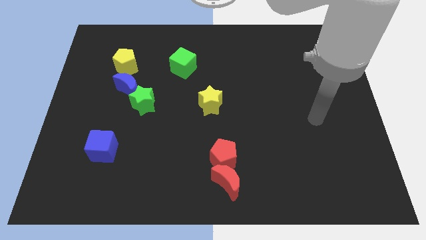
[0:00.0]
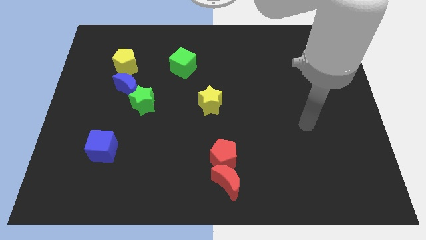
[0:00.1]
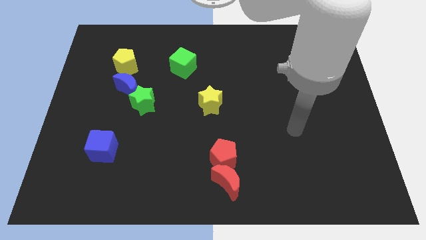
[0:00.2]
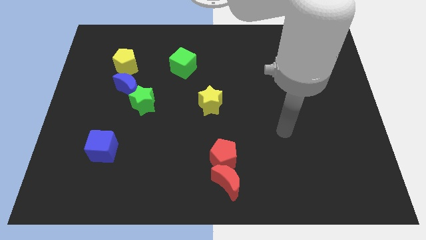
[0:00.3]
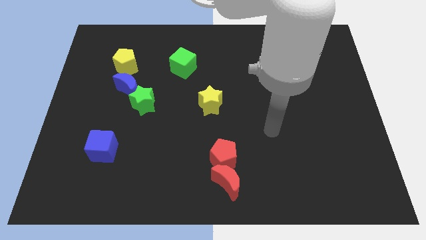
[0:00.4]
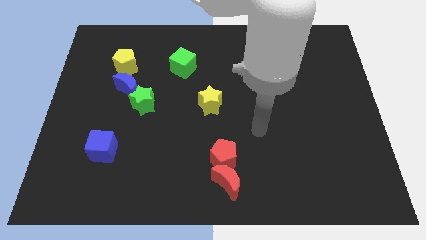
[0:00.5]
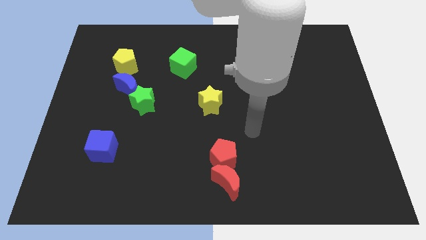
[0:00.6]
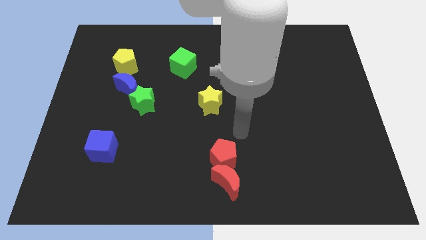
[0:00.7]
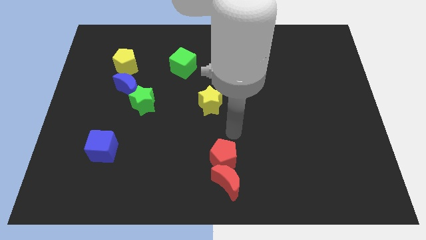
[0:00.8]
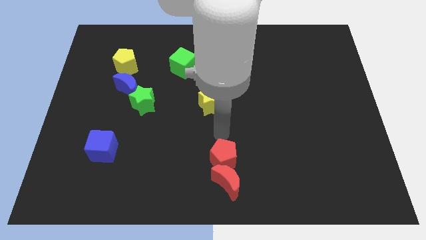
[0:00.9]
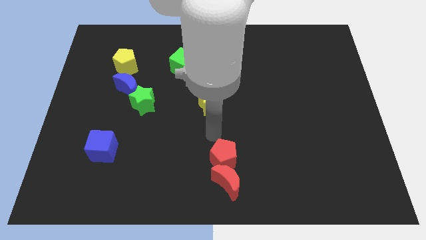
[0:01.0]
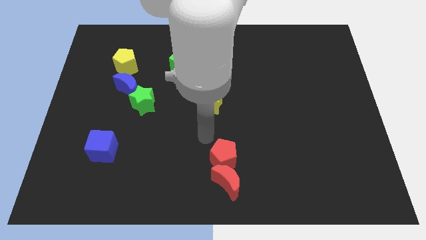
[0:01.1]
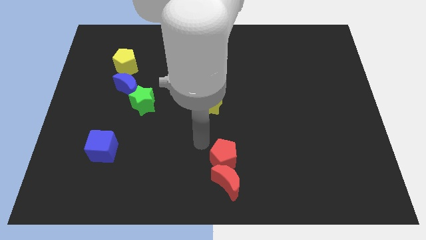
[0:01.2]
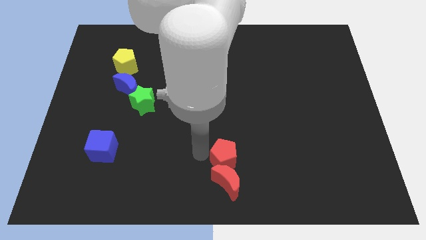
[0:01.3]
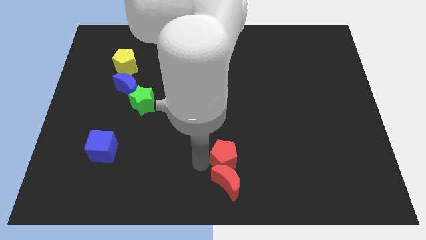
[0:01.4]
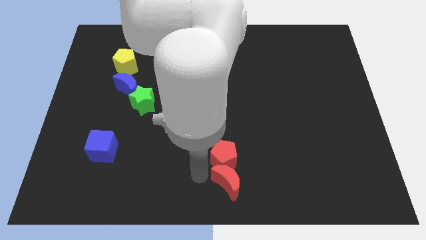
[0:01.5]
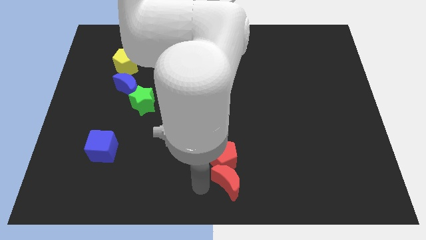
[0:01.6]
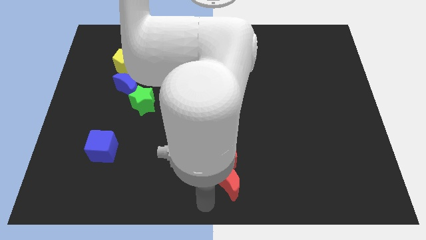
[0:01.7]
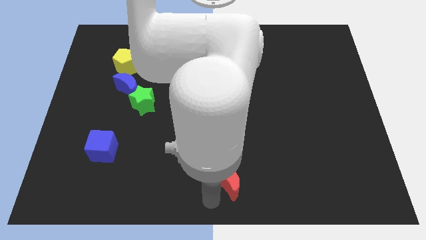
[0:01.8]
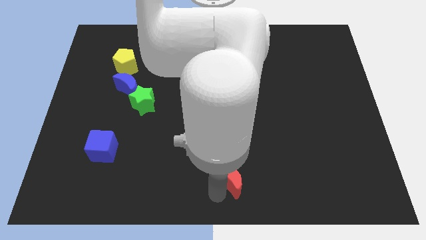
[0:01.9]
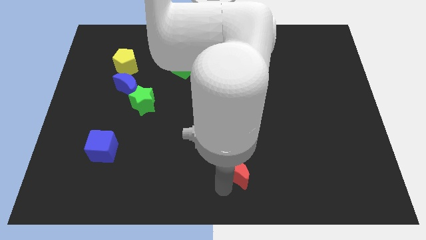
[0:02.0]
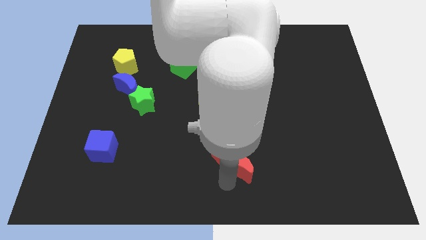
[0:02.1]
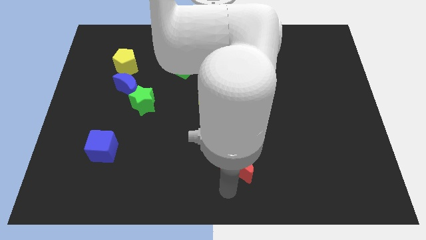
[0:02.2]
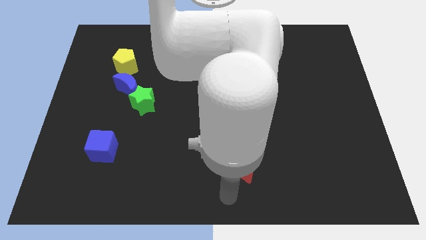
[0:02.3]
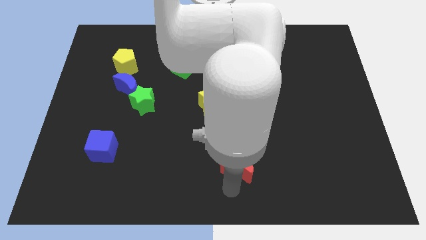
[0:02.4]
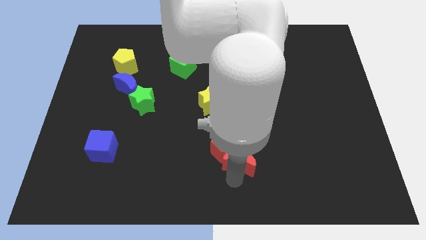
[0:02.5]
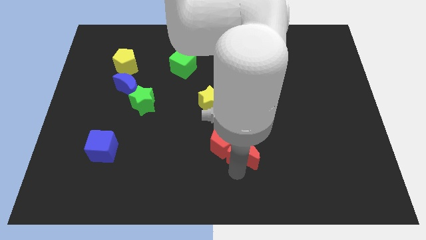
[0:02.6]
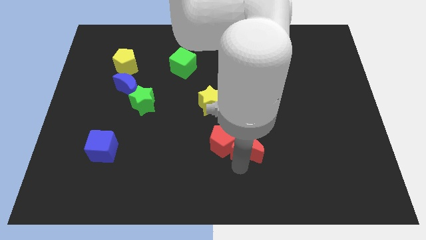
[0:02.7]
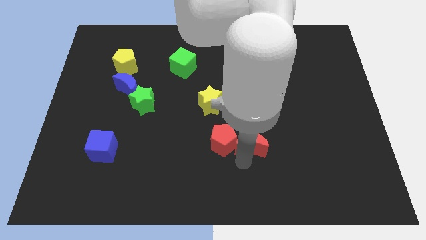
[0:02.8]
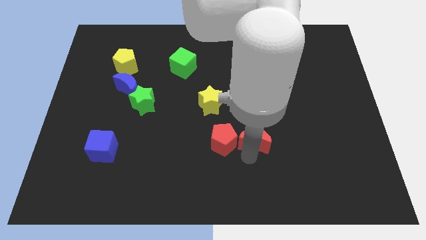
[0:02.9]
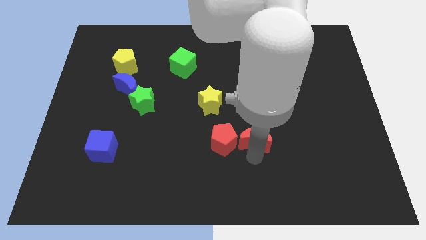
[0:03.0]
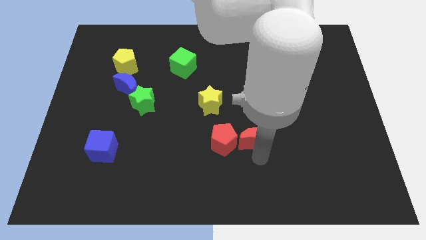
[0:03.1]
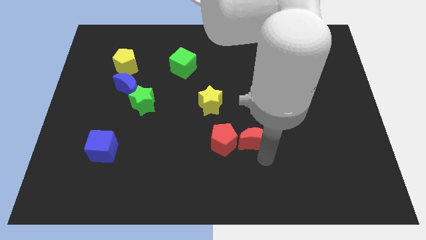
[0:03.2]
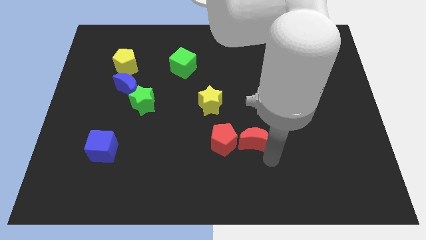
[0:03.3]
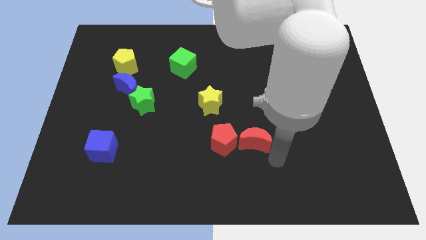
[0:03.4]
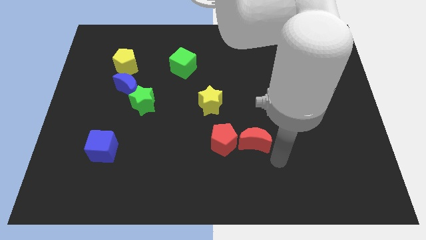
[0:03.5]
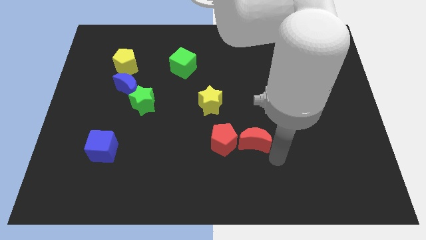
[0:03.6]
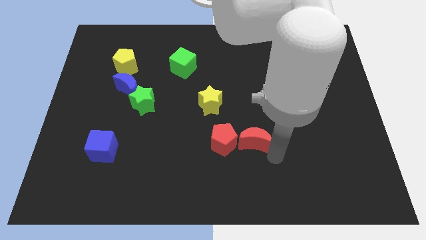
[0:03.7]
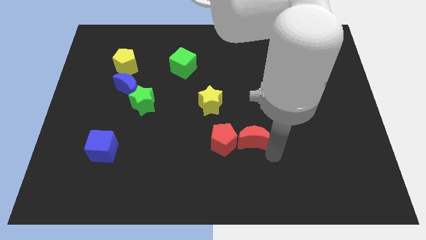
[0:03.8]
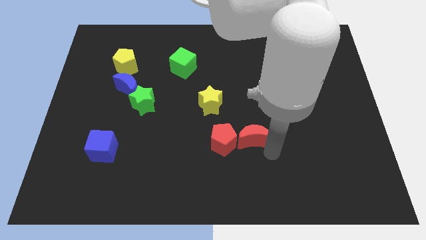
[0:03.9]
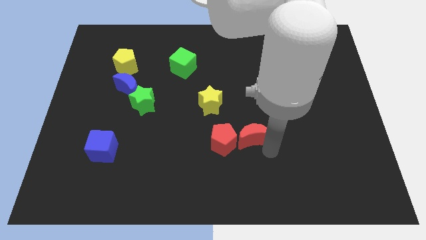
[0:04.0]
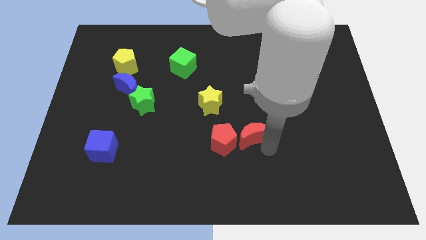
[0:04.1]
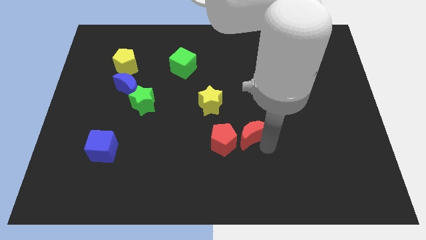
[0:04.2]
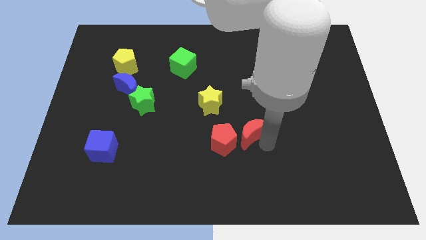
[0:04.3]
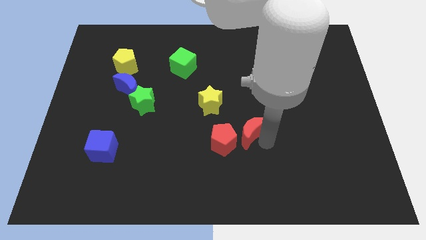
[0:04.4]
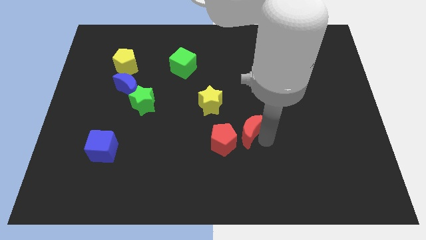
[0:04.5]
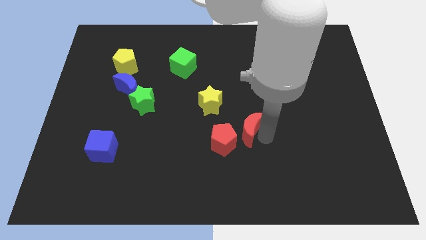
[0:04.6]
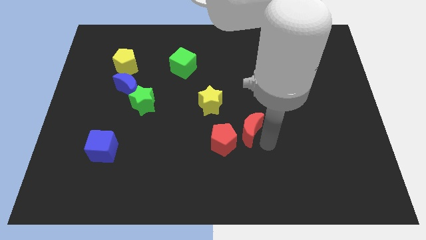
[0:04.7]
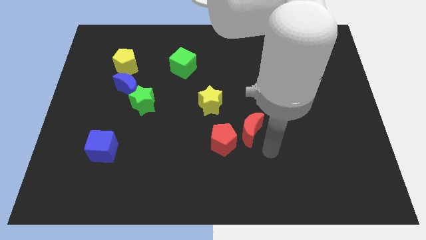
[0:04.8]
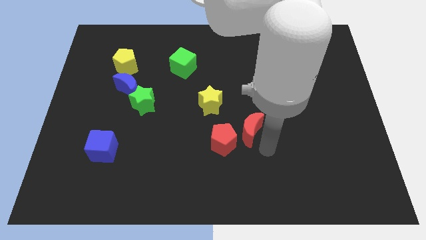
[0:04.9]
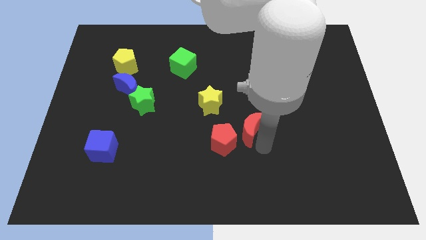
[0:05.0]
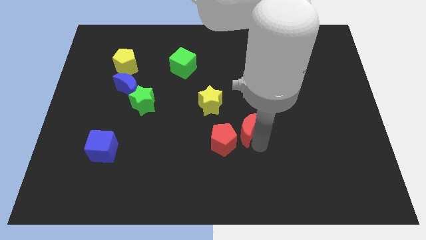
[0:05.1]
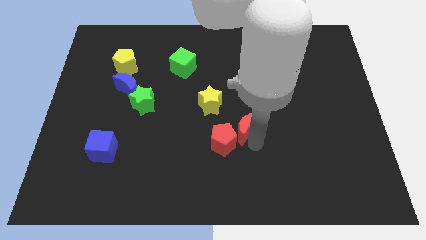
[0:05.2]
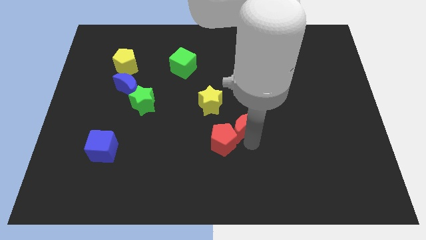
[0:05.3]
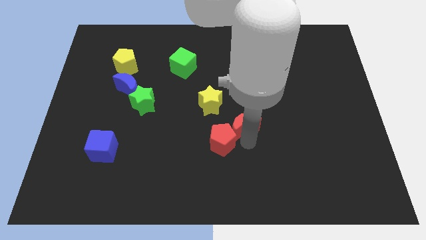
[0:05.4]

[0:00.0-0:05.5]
push the red moon to the top of the red pentagon
